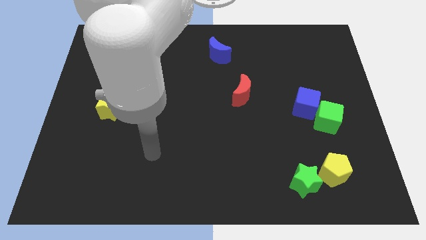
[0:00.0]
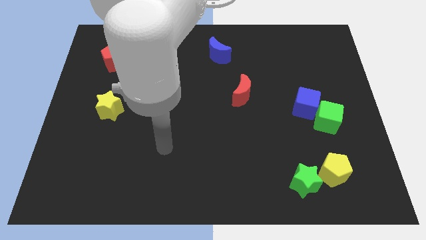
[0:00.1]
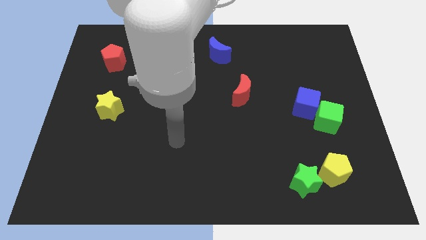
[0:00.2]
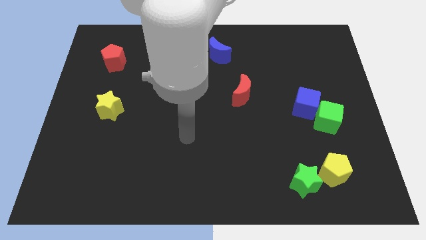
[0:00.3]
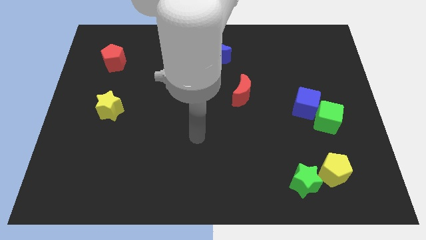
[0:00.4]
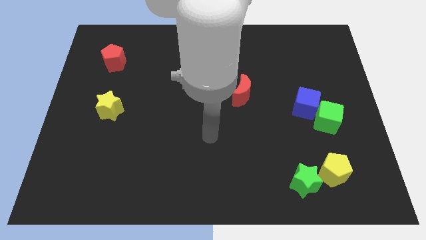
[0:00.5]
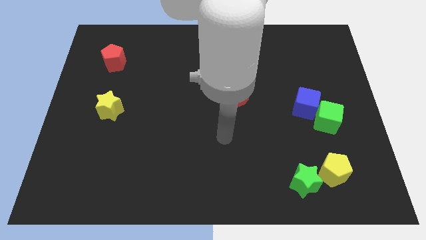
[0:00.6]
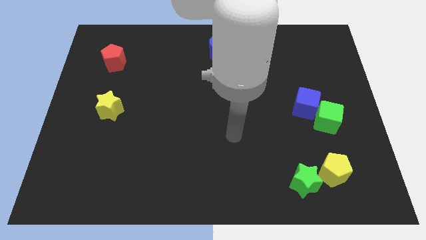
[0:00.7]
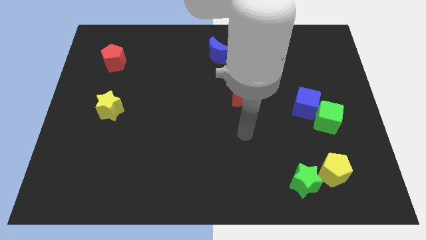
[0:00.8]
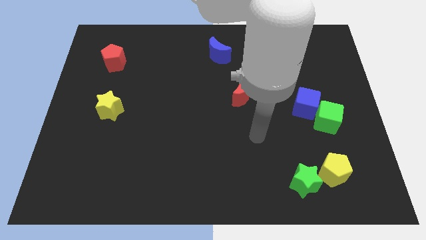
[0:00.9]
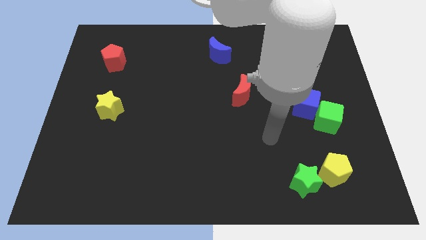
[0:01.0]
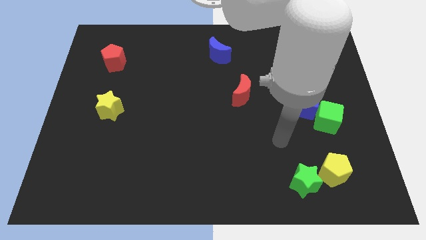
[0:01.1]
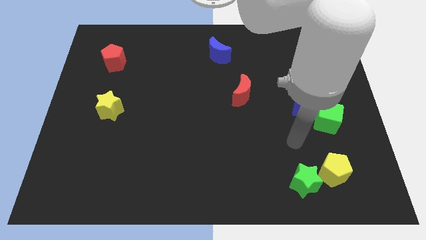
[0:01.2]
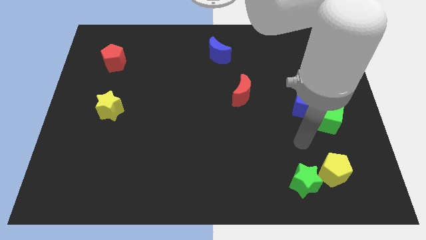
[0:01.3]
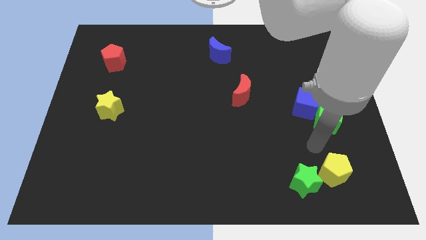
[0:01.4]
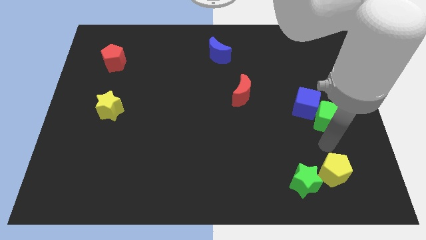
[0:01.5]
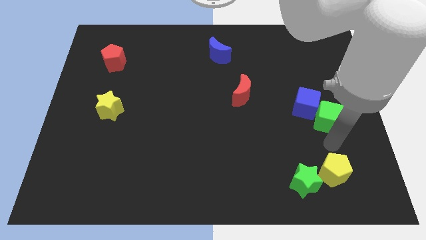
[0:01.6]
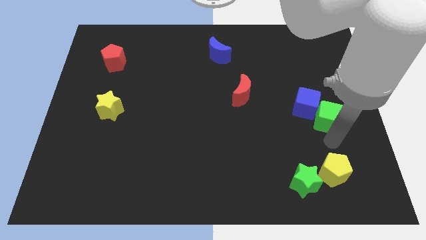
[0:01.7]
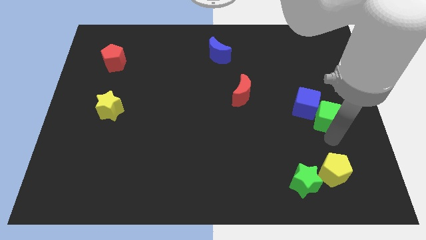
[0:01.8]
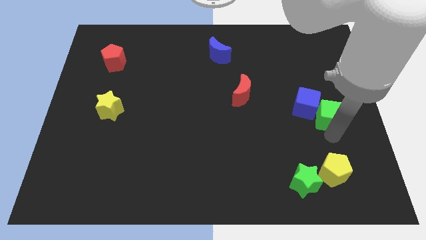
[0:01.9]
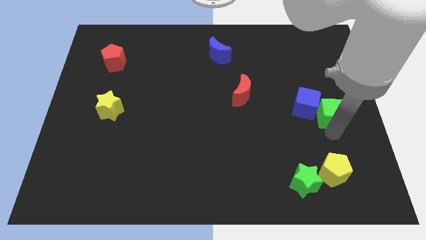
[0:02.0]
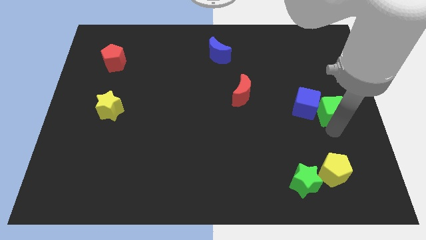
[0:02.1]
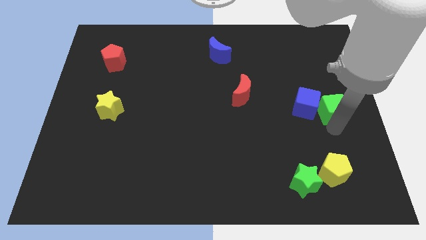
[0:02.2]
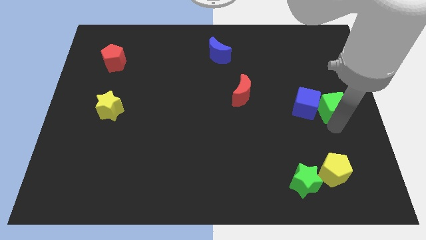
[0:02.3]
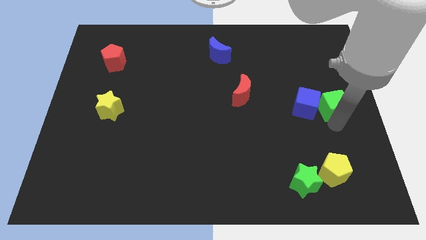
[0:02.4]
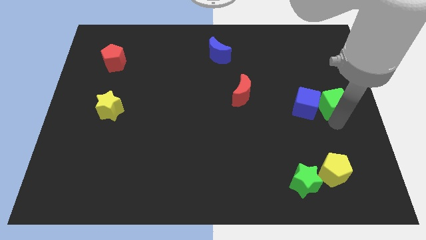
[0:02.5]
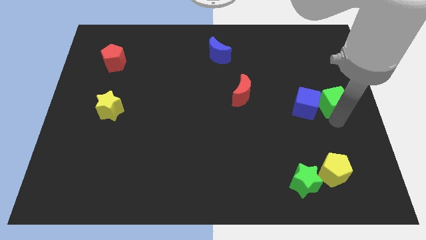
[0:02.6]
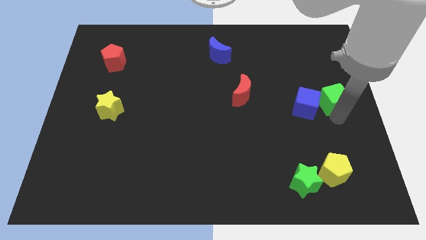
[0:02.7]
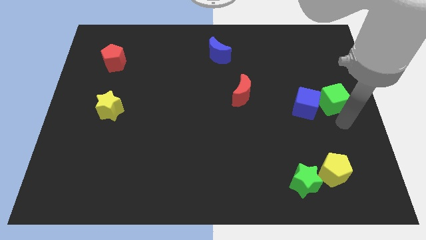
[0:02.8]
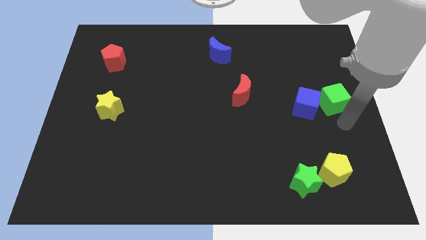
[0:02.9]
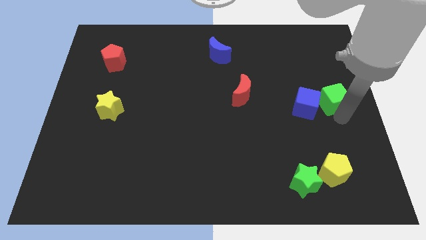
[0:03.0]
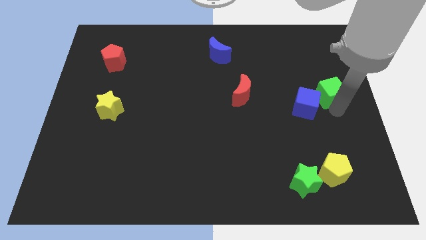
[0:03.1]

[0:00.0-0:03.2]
slightly slide the green cube upwards

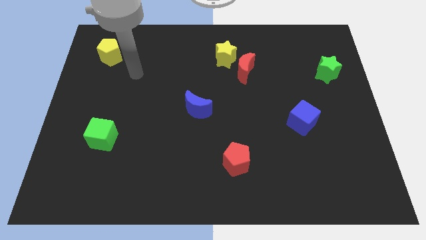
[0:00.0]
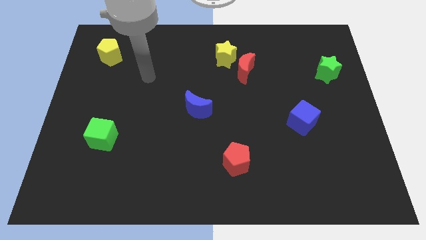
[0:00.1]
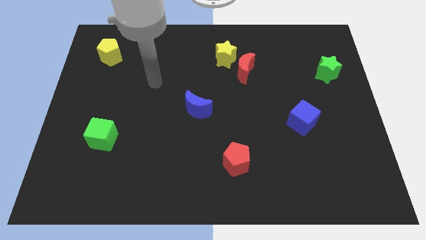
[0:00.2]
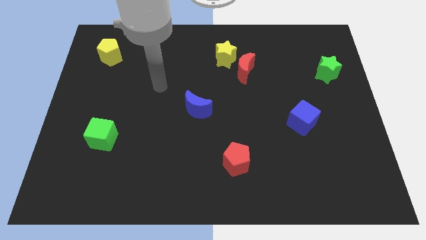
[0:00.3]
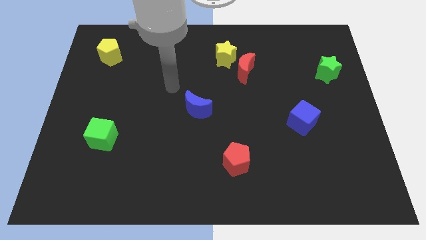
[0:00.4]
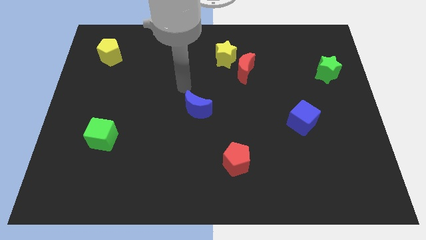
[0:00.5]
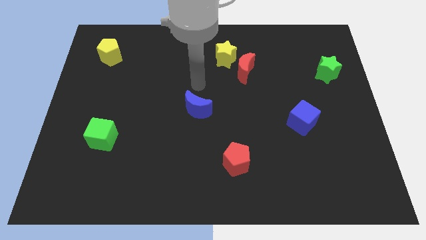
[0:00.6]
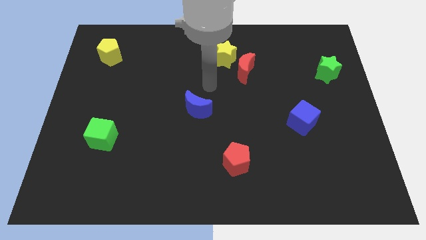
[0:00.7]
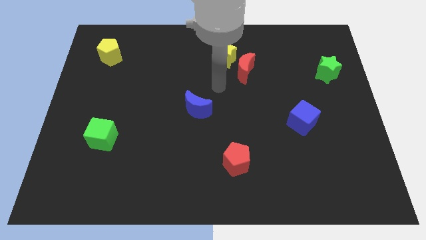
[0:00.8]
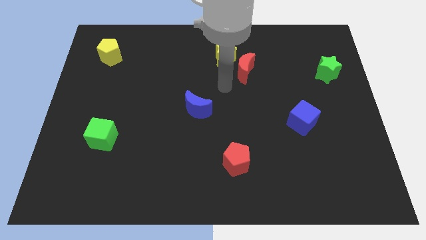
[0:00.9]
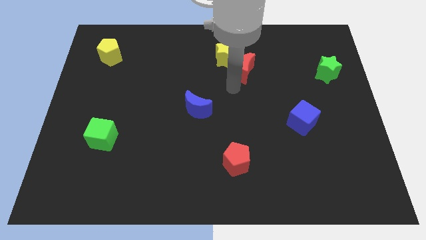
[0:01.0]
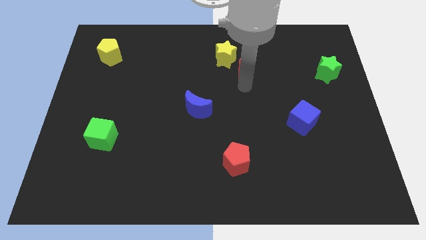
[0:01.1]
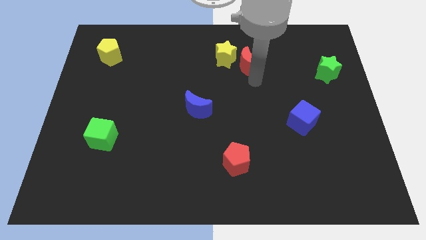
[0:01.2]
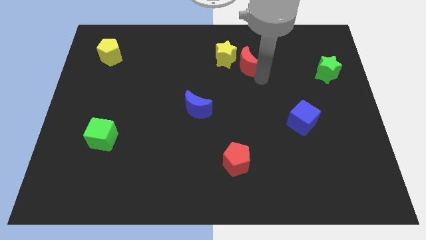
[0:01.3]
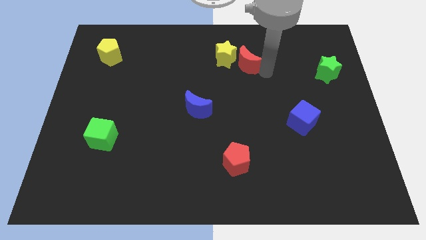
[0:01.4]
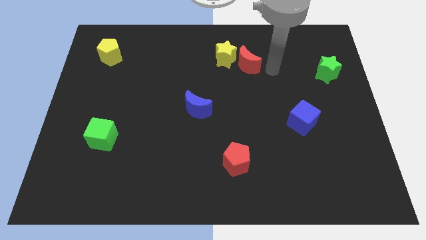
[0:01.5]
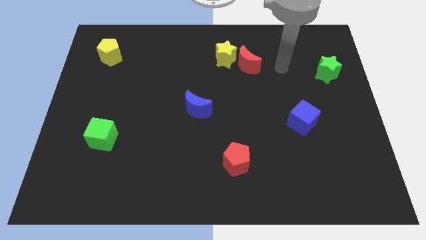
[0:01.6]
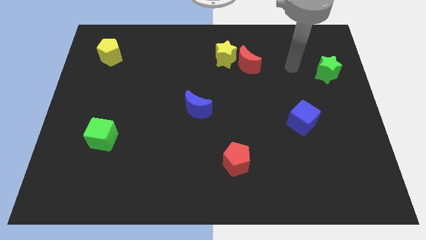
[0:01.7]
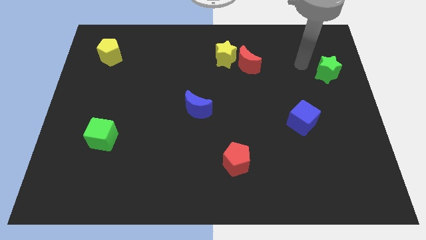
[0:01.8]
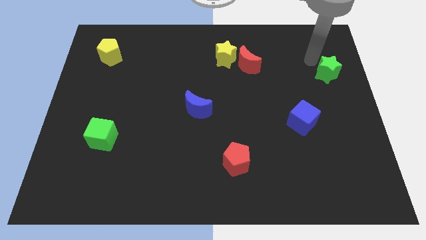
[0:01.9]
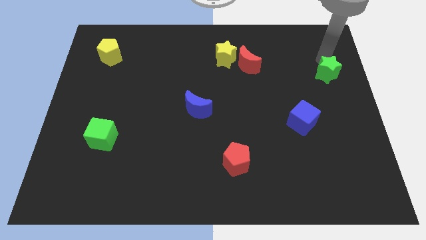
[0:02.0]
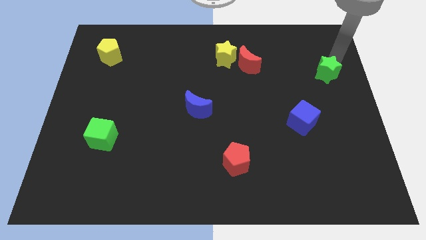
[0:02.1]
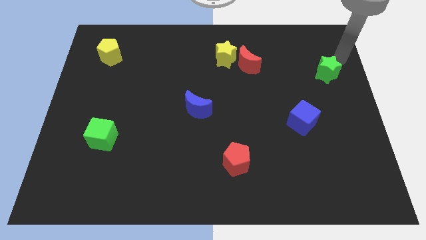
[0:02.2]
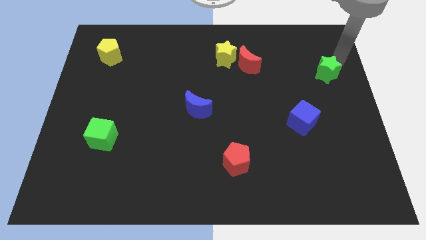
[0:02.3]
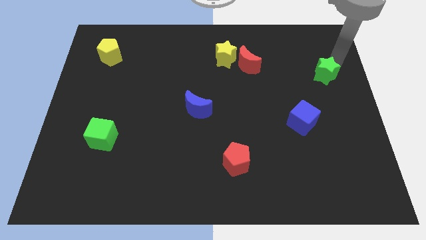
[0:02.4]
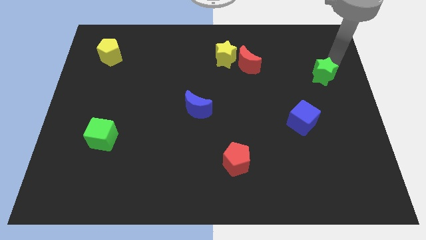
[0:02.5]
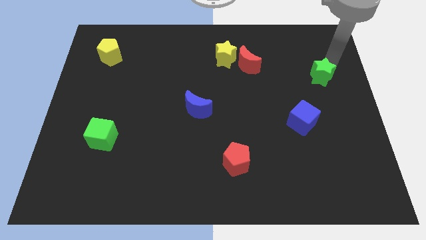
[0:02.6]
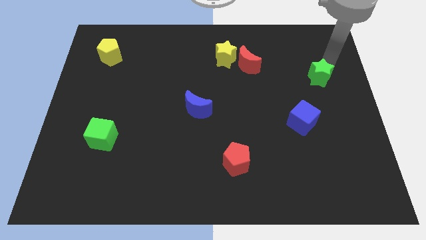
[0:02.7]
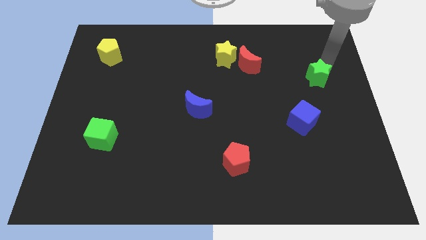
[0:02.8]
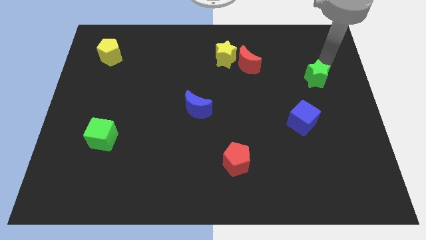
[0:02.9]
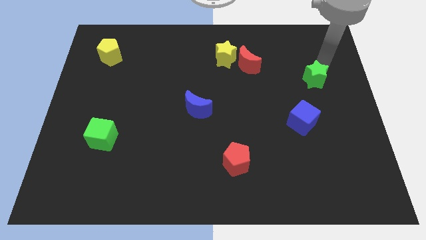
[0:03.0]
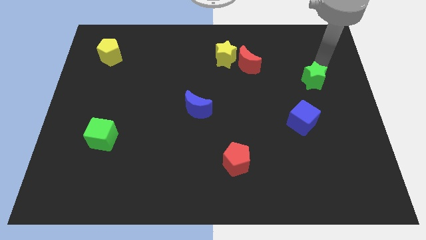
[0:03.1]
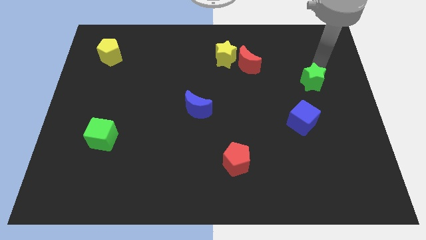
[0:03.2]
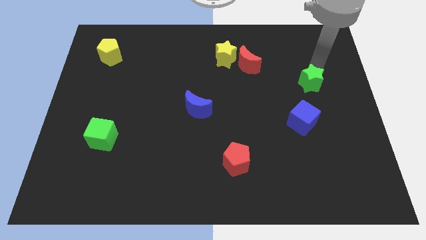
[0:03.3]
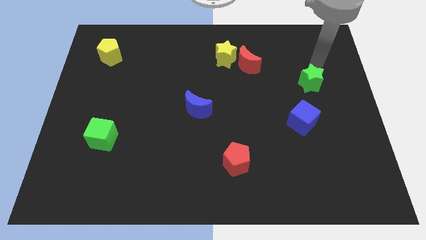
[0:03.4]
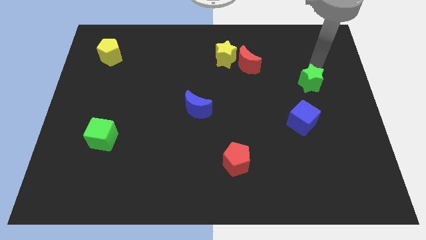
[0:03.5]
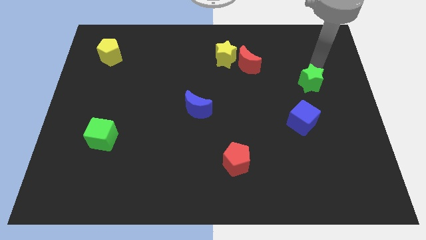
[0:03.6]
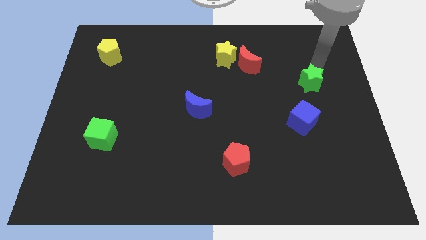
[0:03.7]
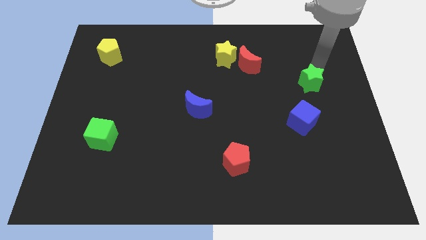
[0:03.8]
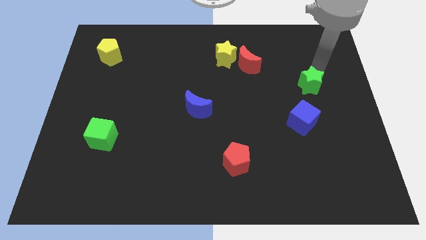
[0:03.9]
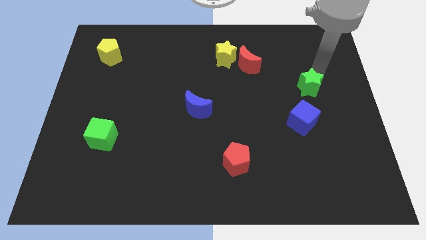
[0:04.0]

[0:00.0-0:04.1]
slide the green star slightly downwards and then left

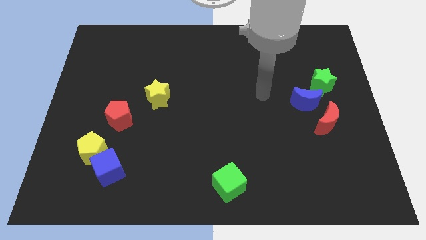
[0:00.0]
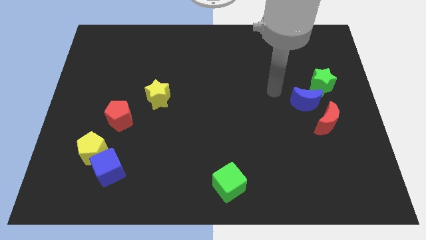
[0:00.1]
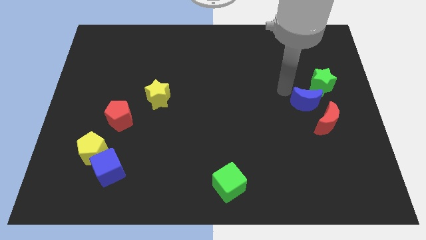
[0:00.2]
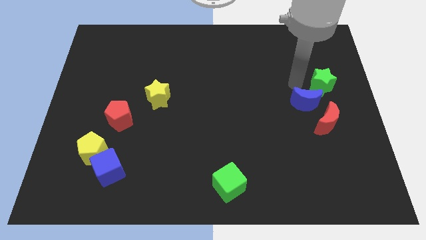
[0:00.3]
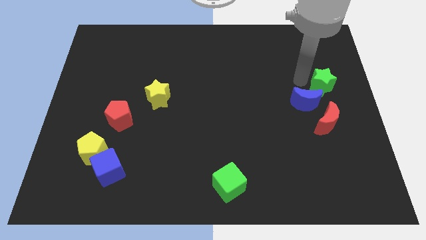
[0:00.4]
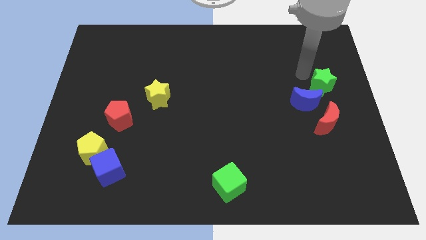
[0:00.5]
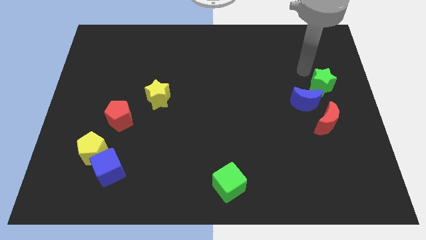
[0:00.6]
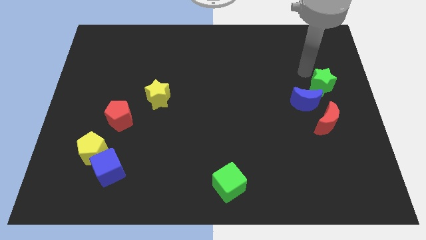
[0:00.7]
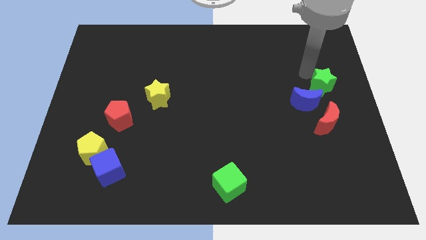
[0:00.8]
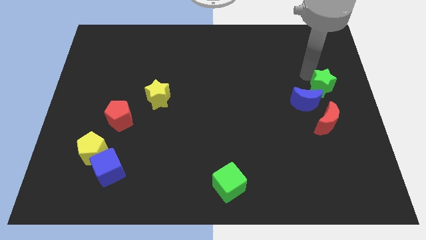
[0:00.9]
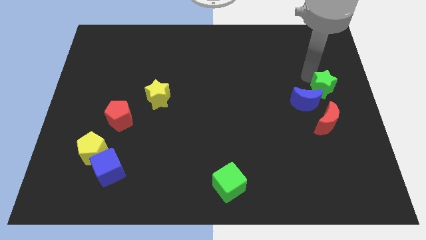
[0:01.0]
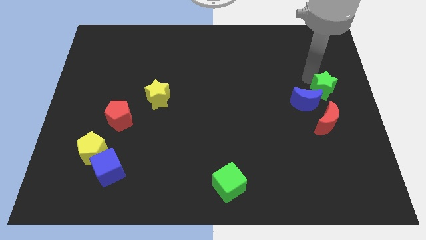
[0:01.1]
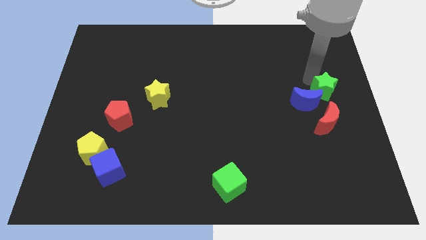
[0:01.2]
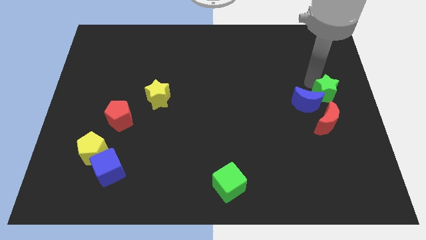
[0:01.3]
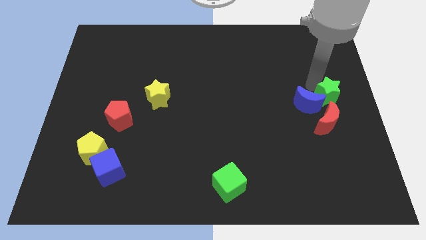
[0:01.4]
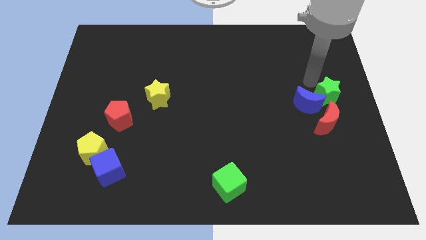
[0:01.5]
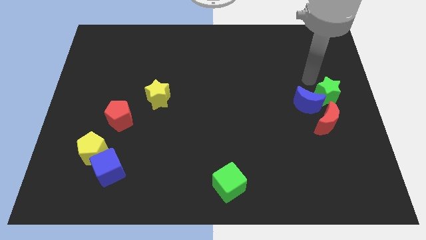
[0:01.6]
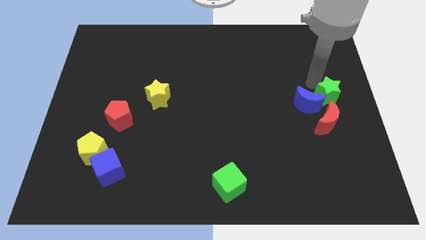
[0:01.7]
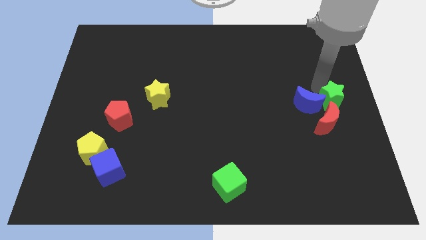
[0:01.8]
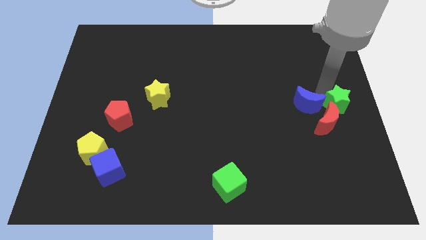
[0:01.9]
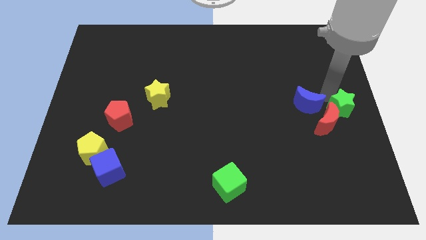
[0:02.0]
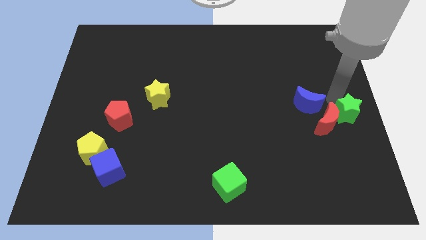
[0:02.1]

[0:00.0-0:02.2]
slide the green star down a bit
